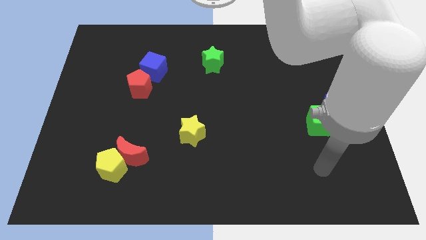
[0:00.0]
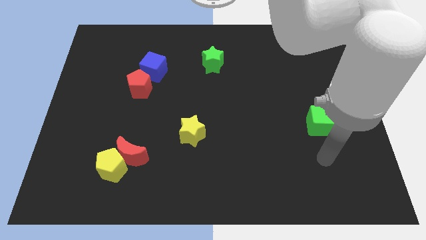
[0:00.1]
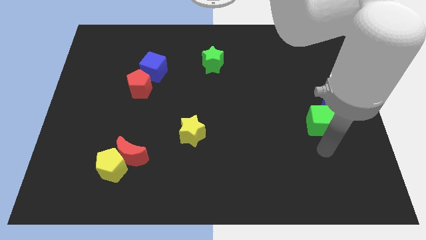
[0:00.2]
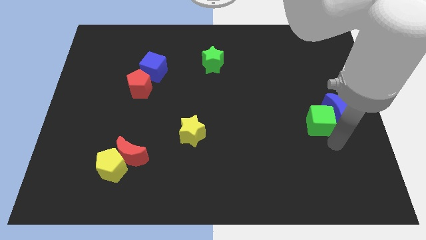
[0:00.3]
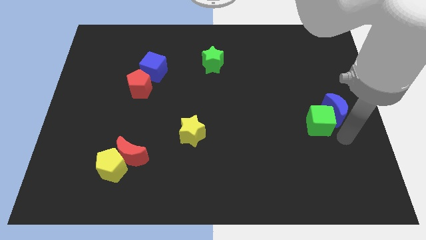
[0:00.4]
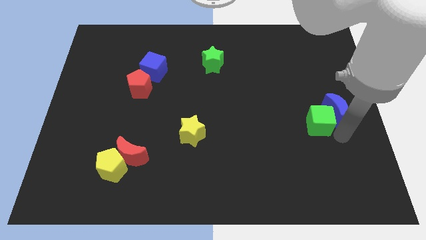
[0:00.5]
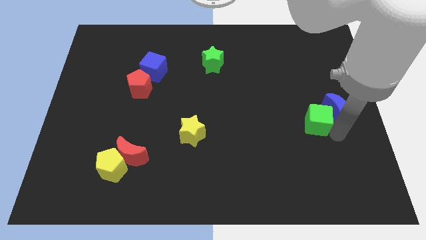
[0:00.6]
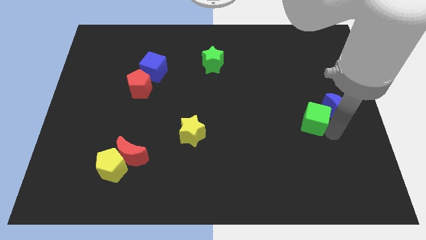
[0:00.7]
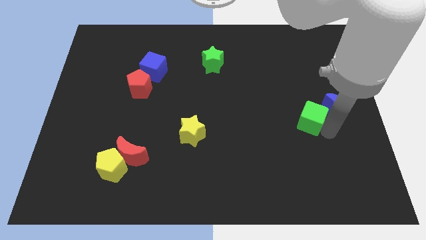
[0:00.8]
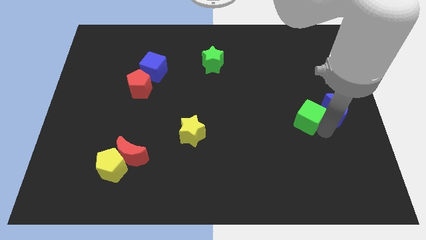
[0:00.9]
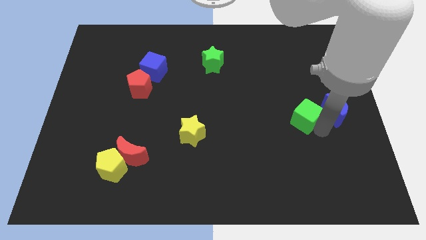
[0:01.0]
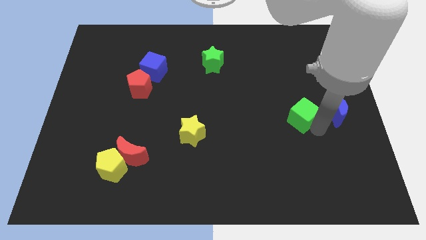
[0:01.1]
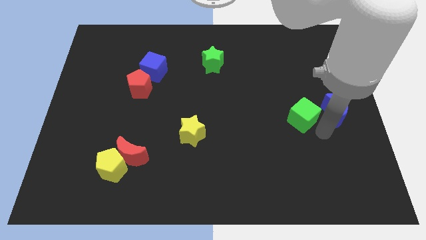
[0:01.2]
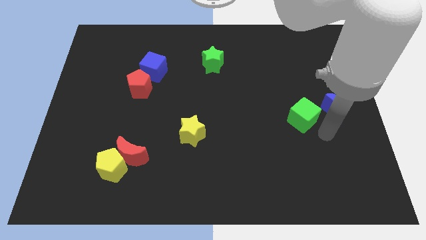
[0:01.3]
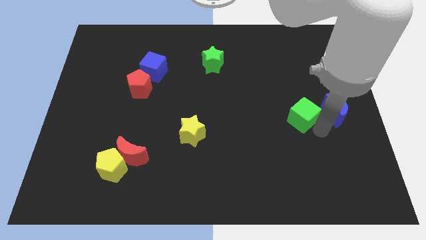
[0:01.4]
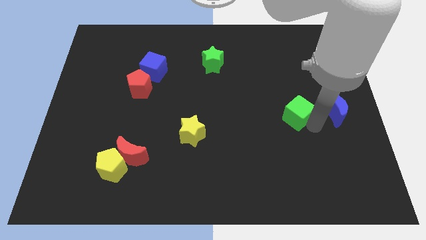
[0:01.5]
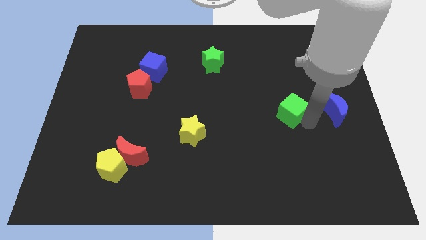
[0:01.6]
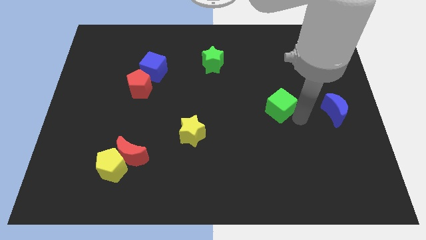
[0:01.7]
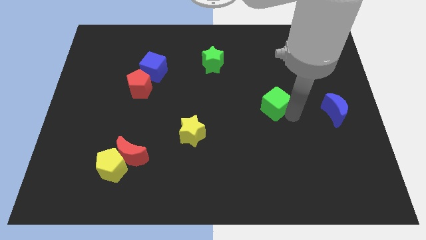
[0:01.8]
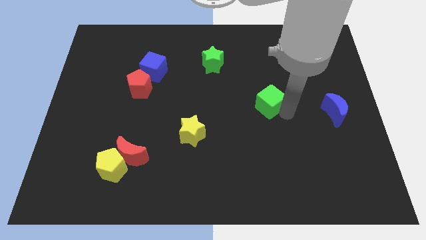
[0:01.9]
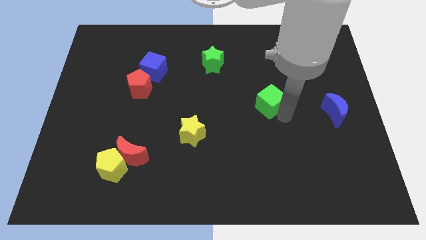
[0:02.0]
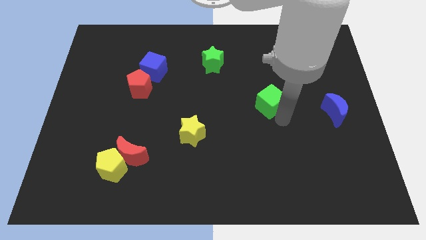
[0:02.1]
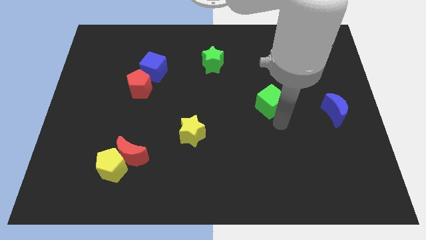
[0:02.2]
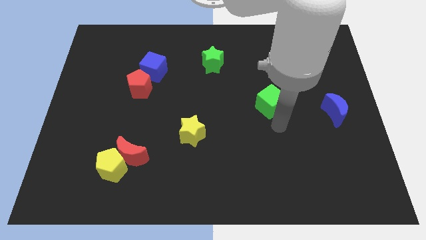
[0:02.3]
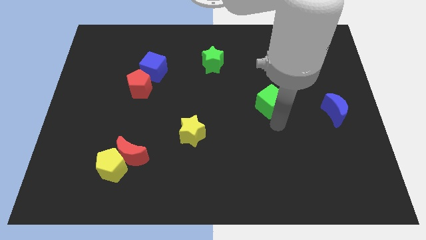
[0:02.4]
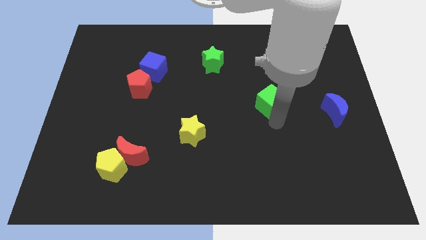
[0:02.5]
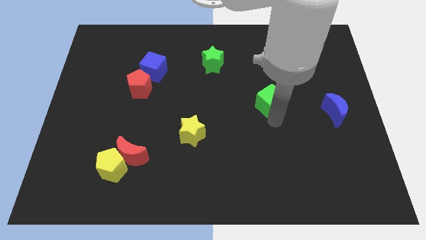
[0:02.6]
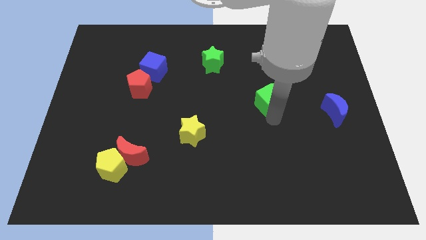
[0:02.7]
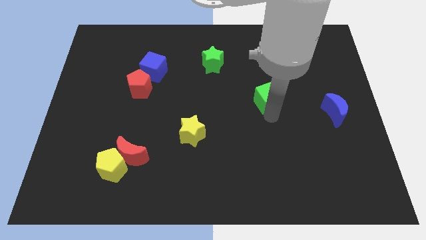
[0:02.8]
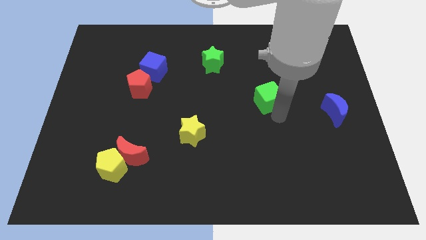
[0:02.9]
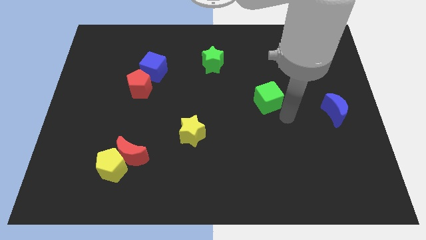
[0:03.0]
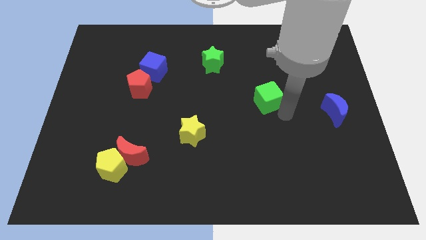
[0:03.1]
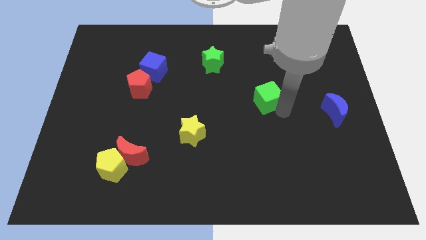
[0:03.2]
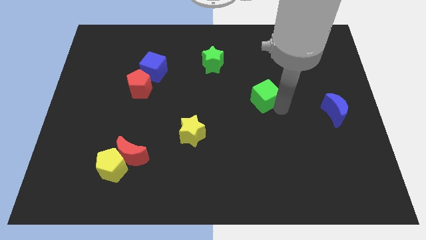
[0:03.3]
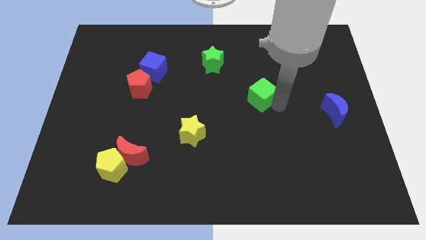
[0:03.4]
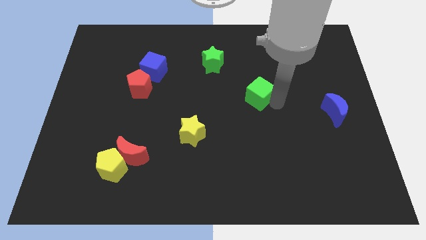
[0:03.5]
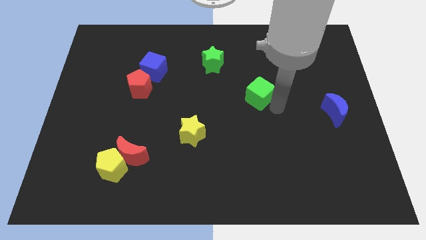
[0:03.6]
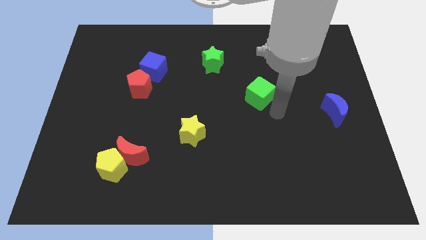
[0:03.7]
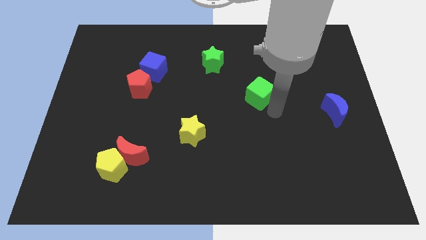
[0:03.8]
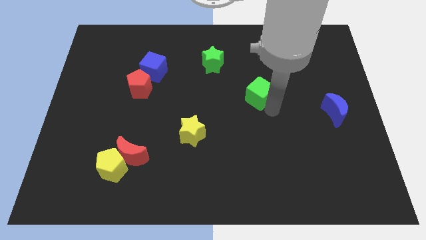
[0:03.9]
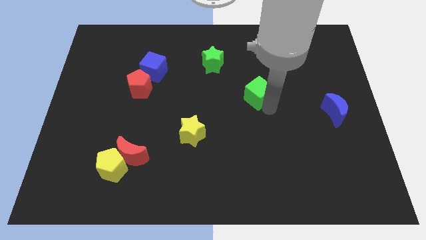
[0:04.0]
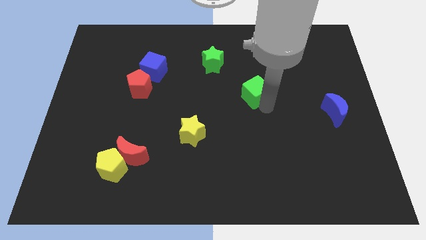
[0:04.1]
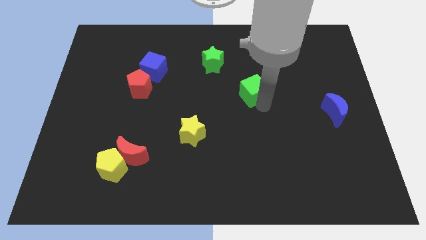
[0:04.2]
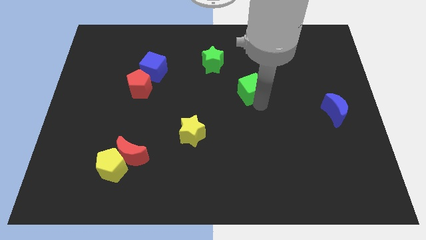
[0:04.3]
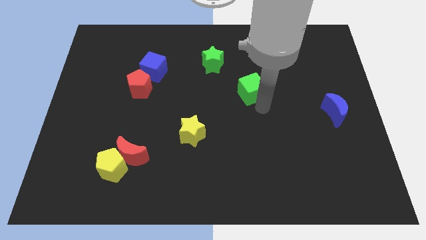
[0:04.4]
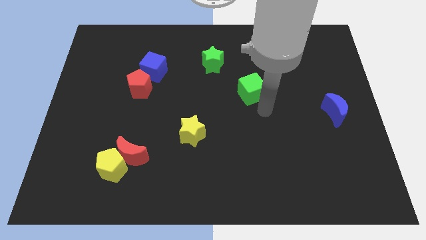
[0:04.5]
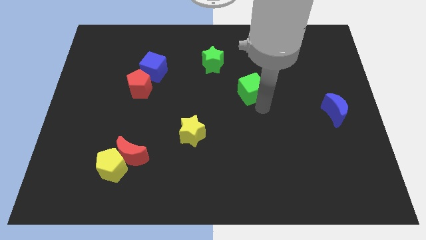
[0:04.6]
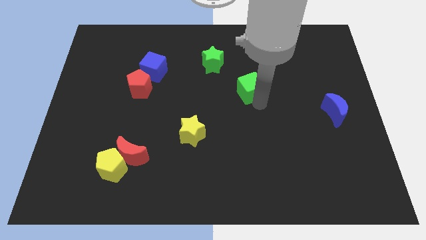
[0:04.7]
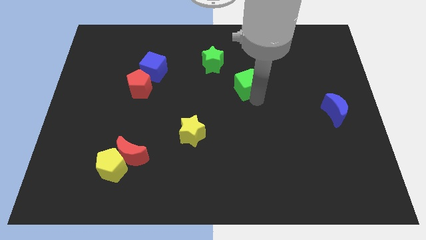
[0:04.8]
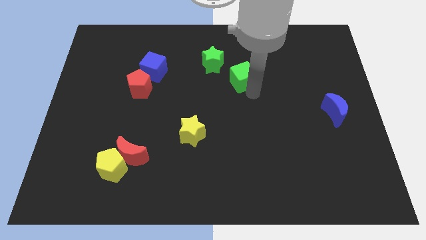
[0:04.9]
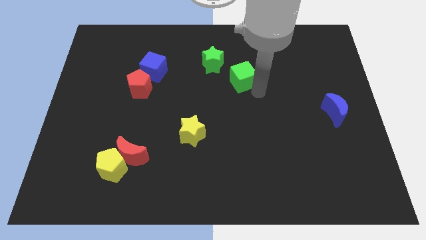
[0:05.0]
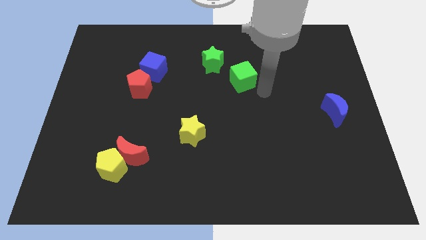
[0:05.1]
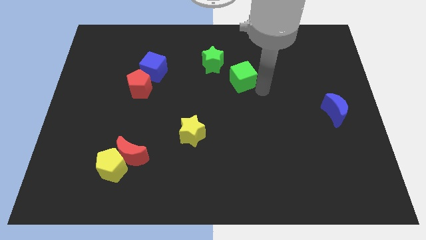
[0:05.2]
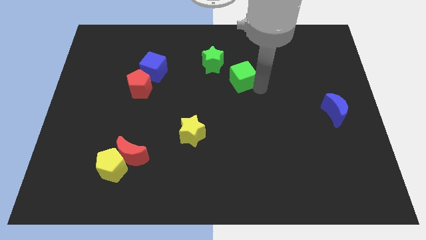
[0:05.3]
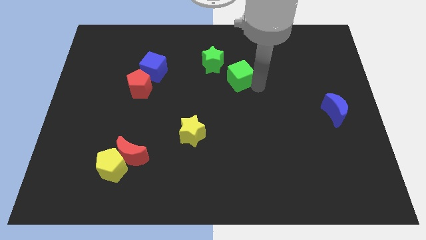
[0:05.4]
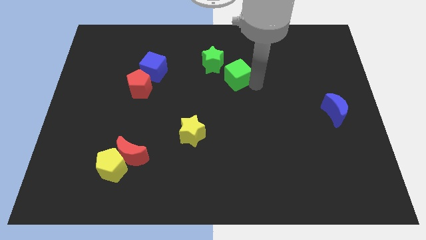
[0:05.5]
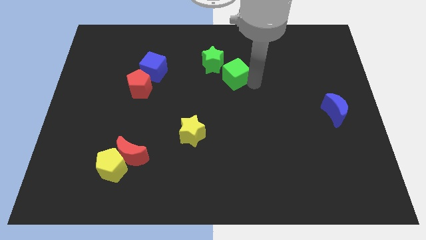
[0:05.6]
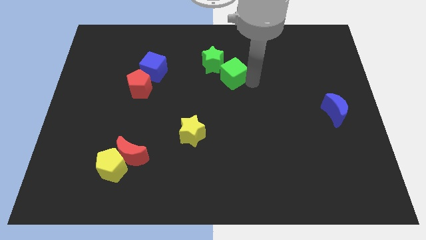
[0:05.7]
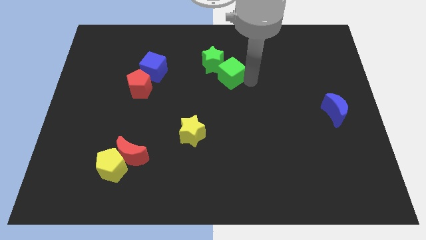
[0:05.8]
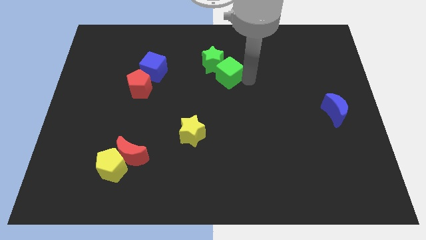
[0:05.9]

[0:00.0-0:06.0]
push the green cube towards the green star

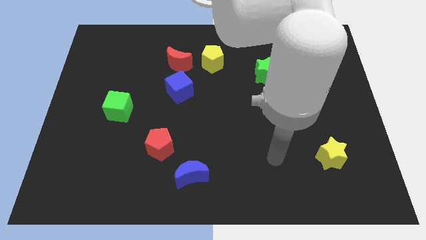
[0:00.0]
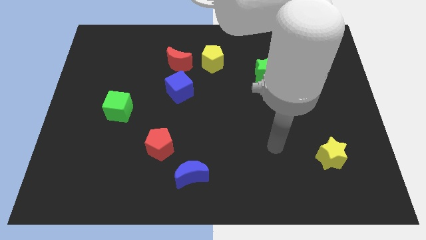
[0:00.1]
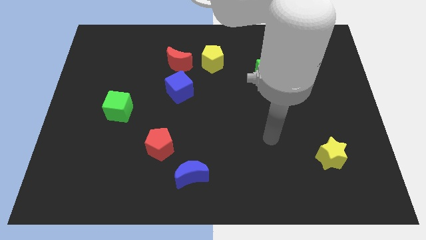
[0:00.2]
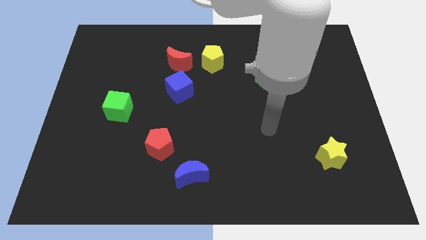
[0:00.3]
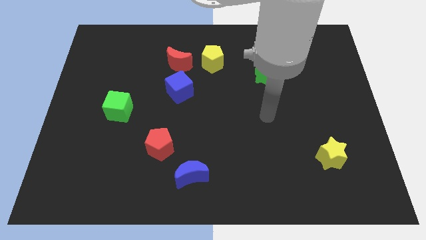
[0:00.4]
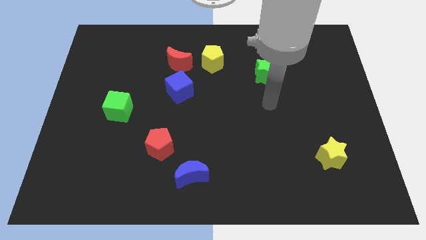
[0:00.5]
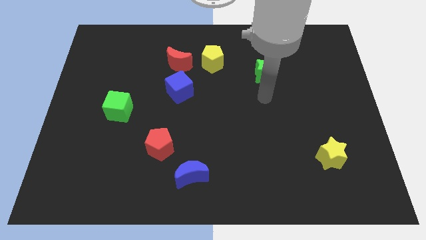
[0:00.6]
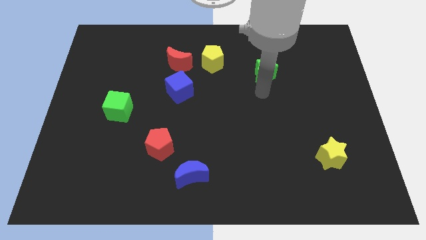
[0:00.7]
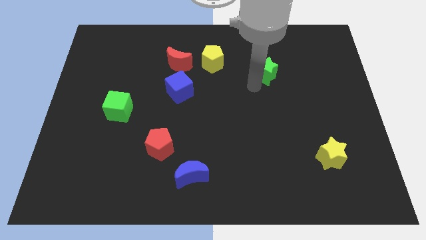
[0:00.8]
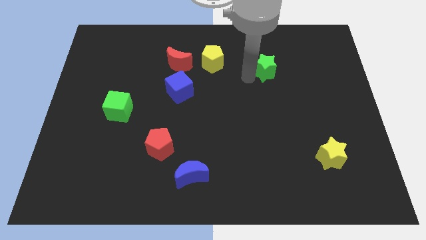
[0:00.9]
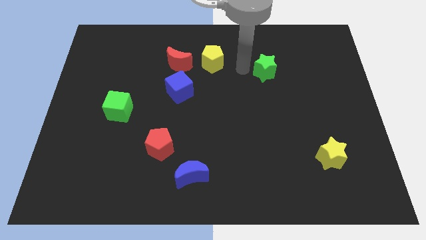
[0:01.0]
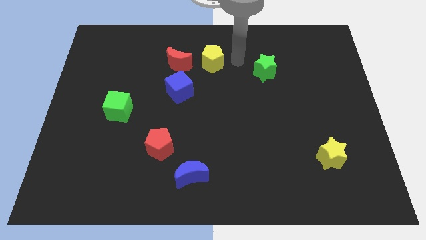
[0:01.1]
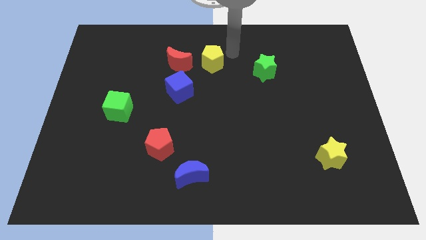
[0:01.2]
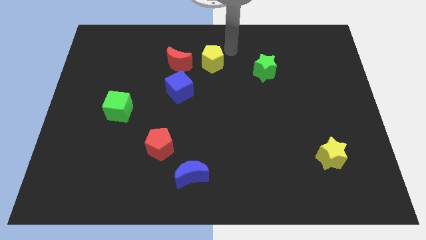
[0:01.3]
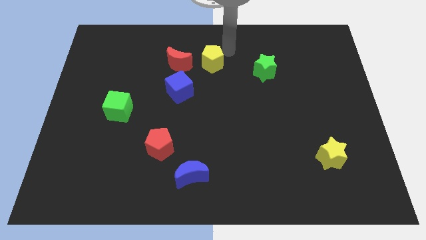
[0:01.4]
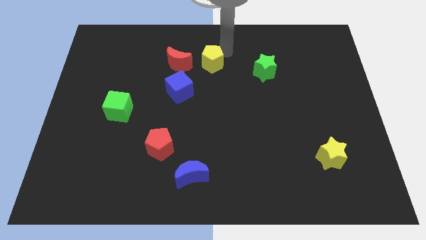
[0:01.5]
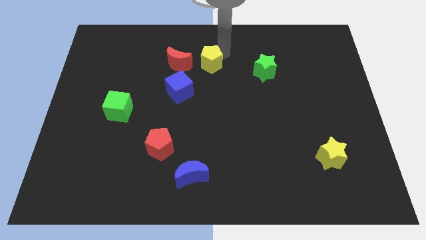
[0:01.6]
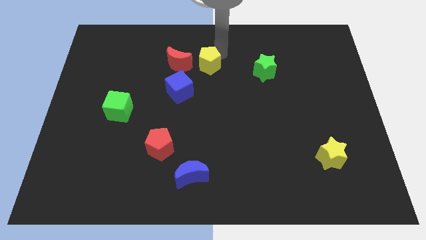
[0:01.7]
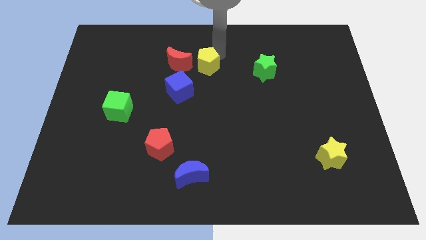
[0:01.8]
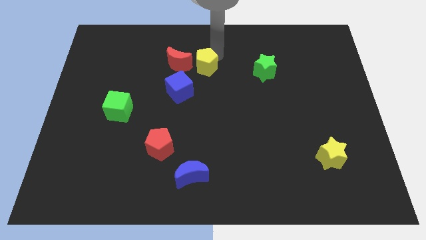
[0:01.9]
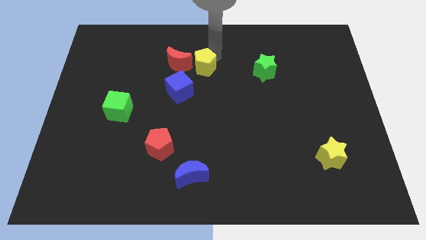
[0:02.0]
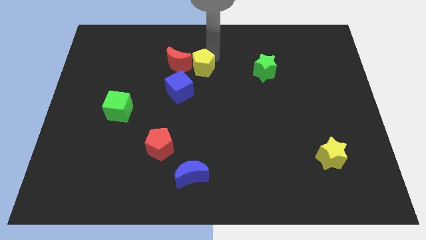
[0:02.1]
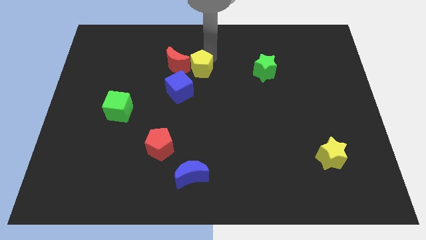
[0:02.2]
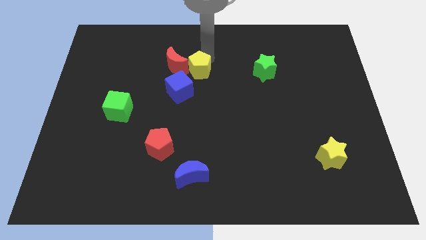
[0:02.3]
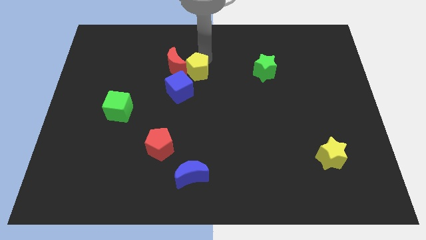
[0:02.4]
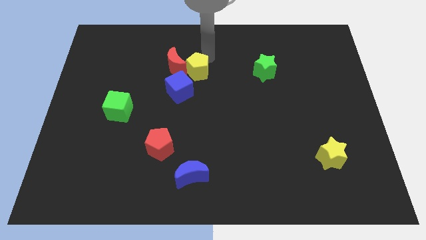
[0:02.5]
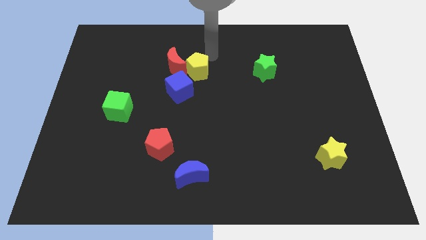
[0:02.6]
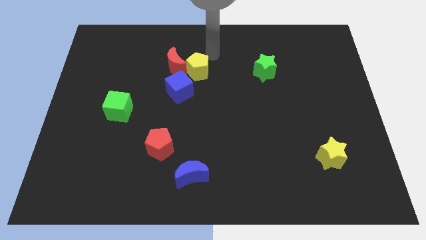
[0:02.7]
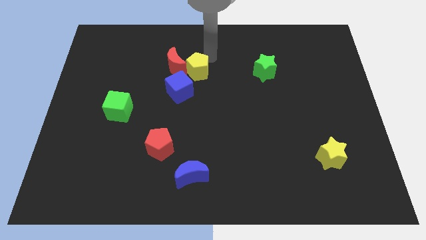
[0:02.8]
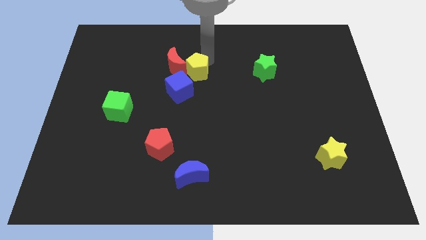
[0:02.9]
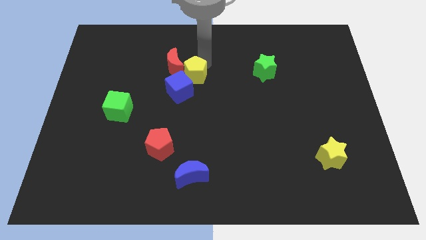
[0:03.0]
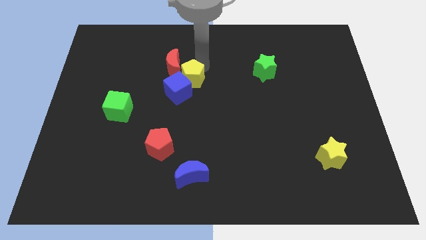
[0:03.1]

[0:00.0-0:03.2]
move the yellow pentagon to the blue cube
